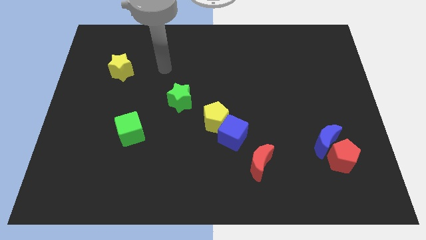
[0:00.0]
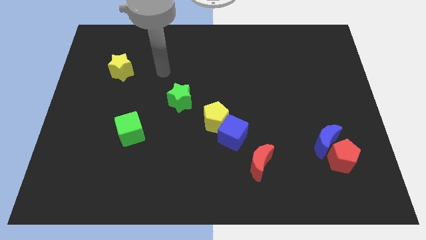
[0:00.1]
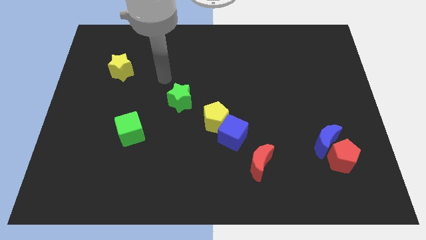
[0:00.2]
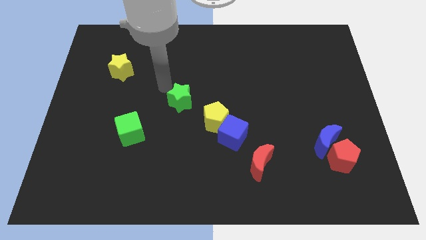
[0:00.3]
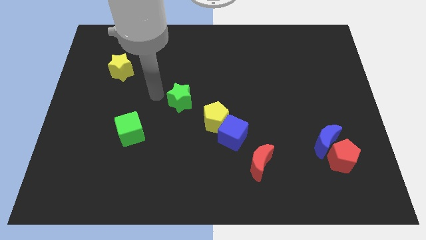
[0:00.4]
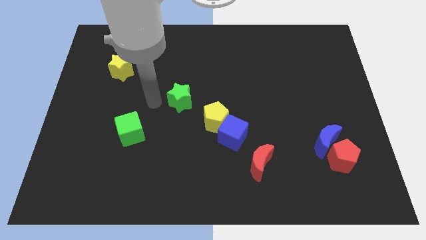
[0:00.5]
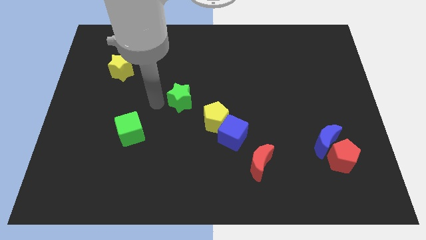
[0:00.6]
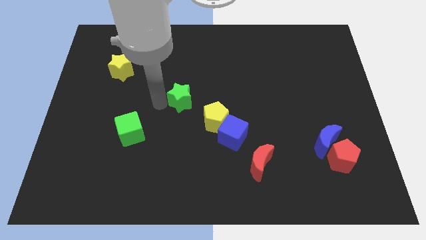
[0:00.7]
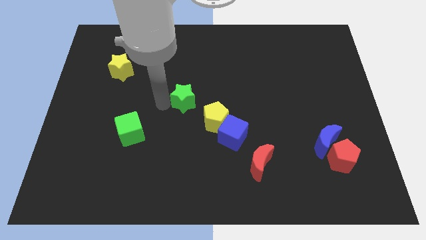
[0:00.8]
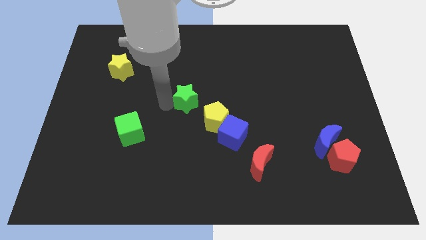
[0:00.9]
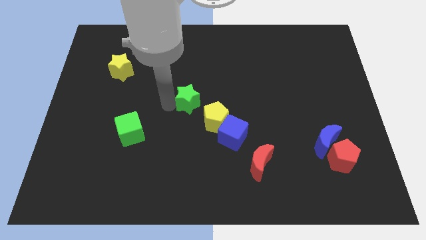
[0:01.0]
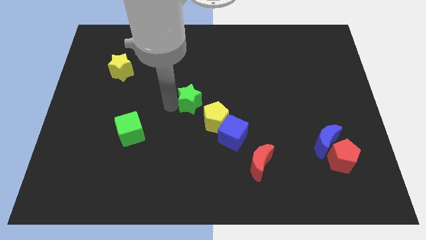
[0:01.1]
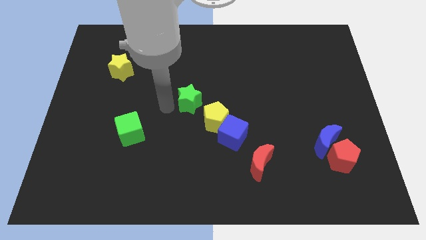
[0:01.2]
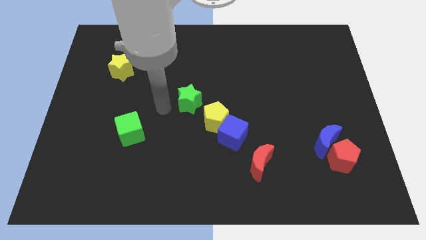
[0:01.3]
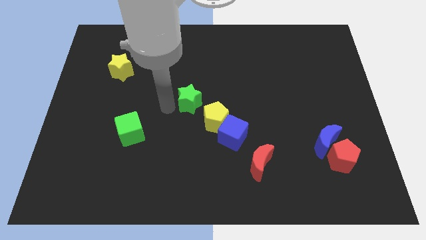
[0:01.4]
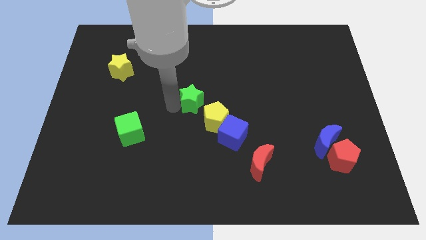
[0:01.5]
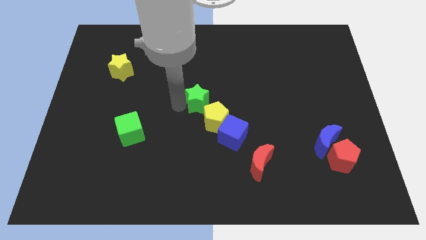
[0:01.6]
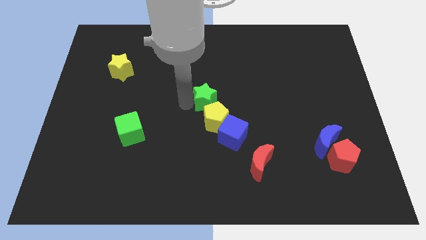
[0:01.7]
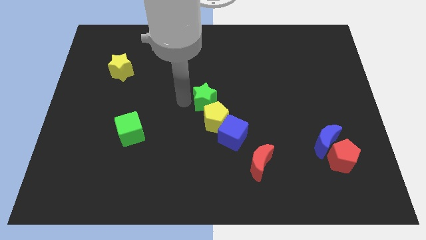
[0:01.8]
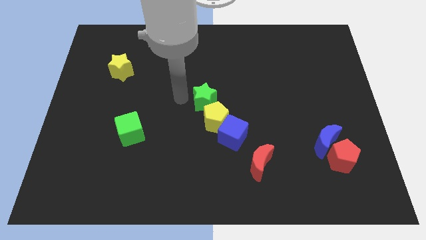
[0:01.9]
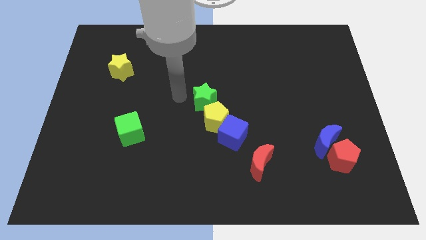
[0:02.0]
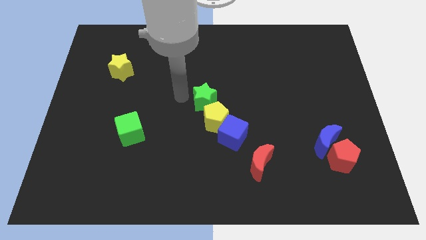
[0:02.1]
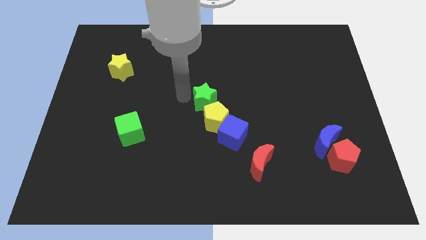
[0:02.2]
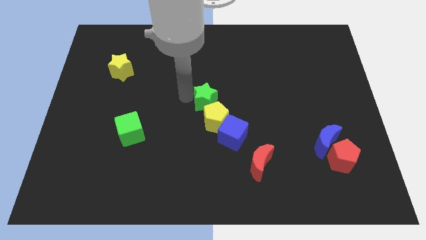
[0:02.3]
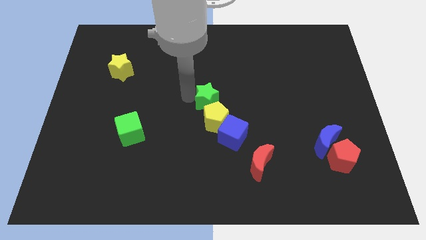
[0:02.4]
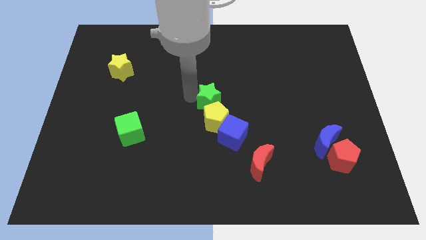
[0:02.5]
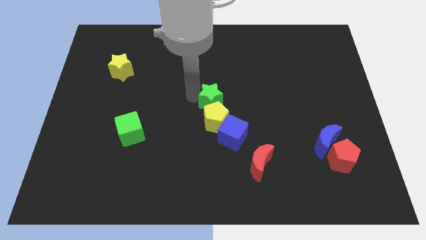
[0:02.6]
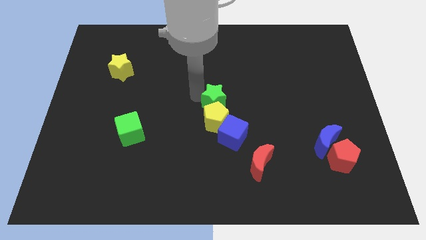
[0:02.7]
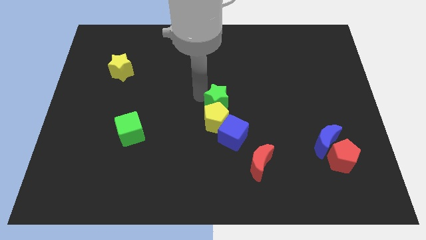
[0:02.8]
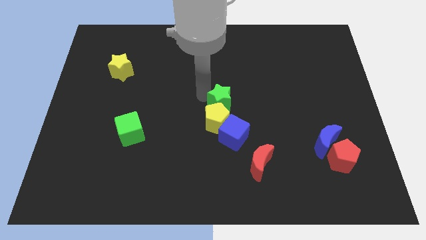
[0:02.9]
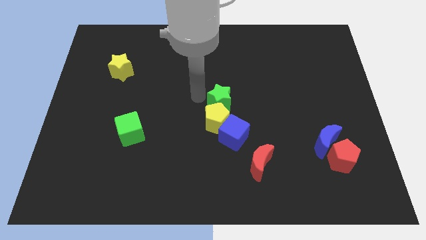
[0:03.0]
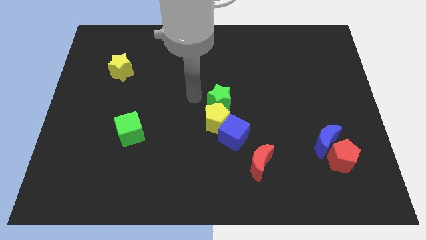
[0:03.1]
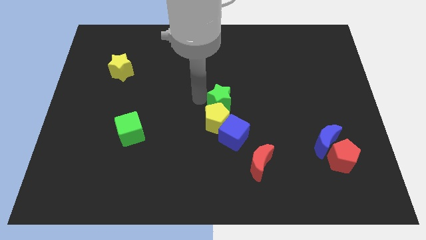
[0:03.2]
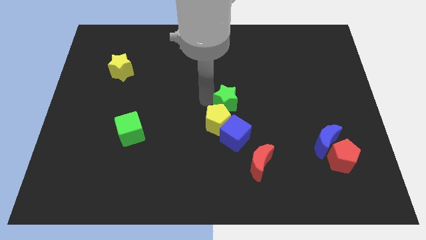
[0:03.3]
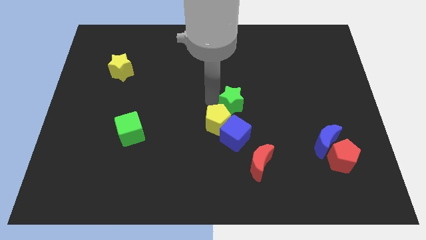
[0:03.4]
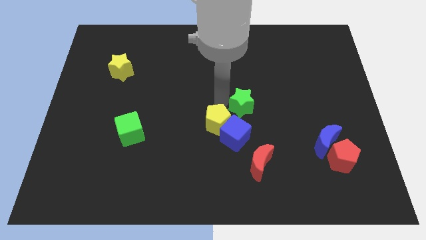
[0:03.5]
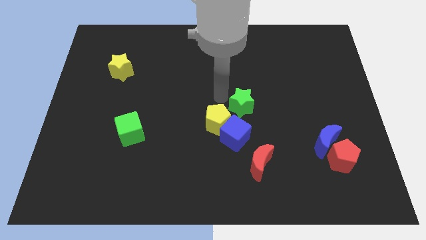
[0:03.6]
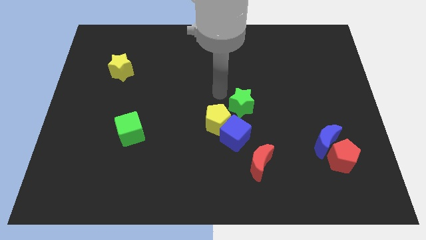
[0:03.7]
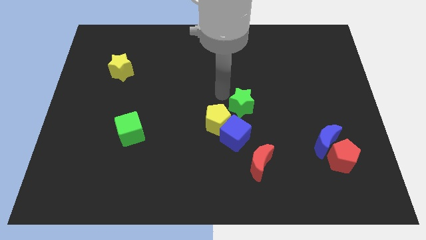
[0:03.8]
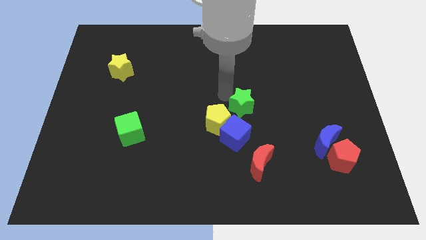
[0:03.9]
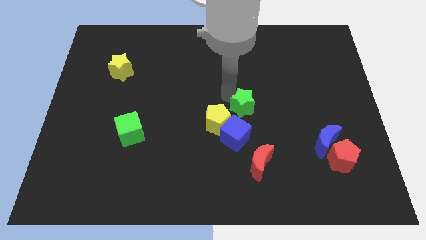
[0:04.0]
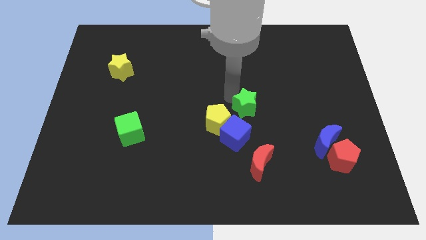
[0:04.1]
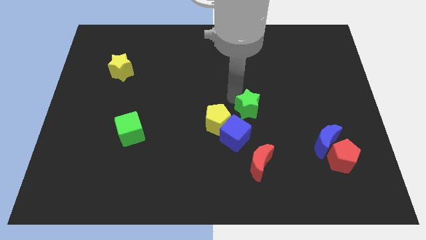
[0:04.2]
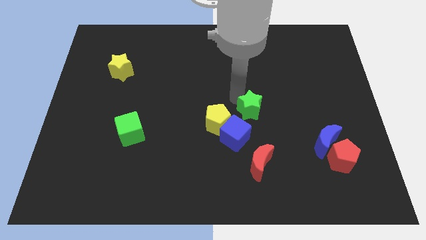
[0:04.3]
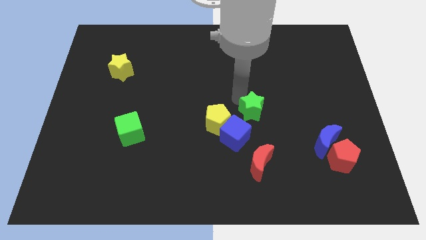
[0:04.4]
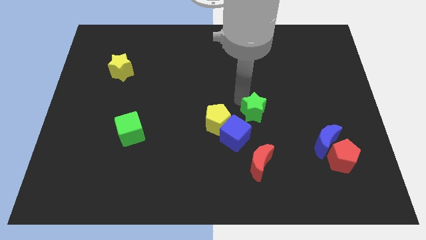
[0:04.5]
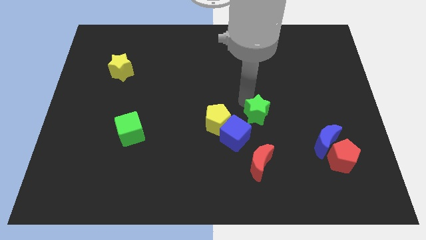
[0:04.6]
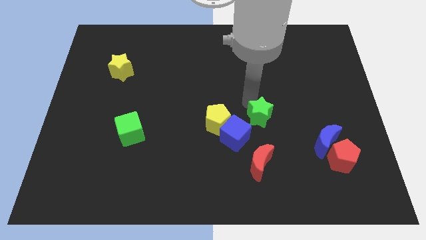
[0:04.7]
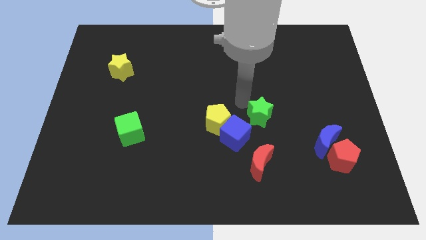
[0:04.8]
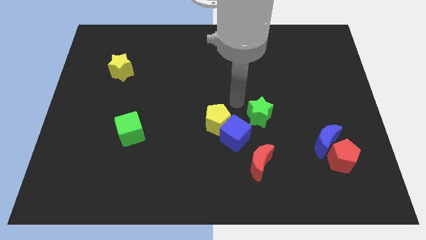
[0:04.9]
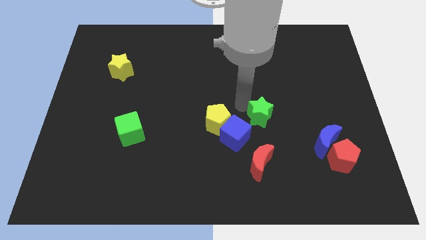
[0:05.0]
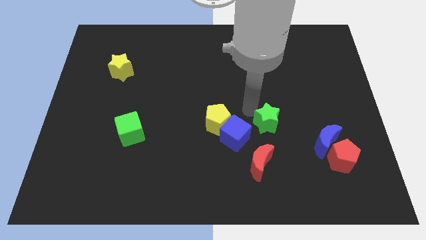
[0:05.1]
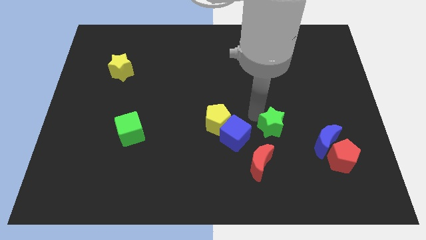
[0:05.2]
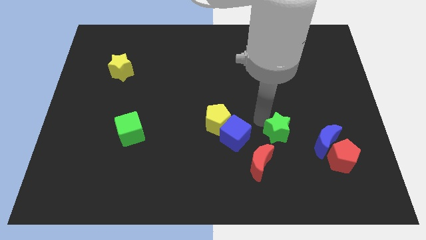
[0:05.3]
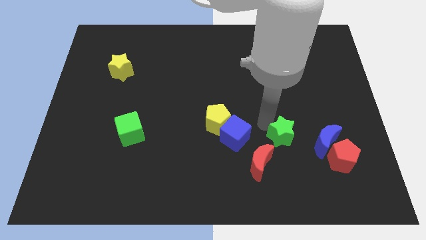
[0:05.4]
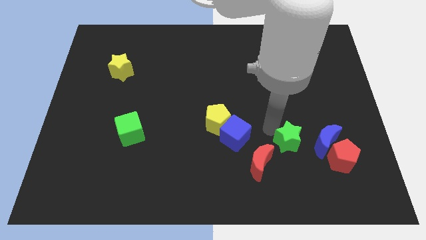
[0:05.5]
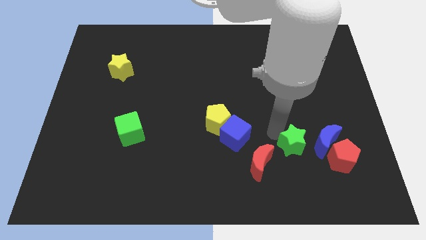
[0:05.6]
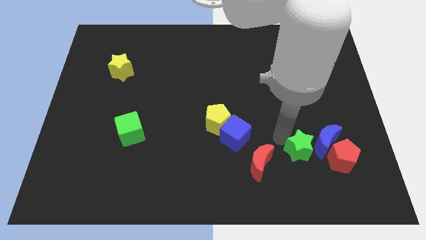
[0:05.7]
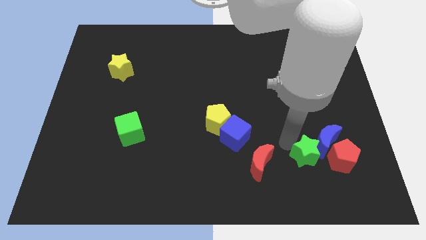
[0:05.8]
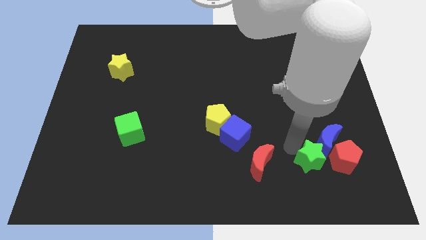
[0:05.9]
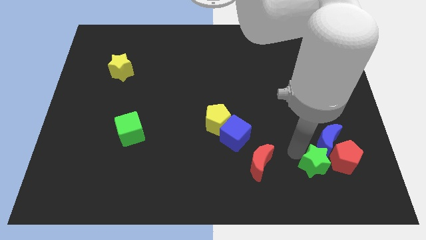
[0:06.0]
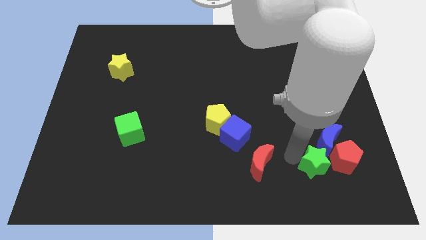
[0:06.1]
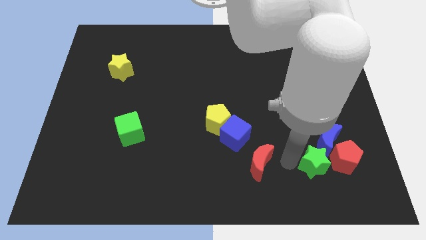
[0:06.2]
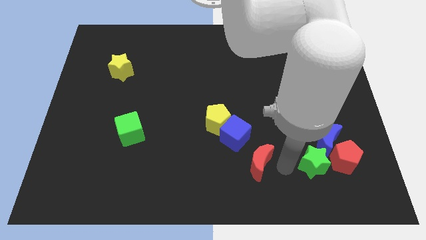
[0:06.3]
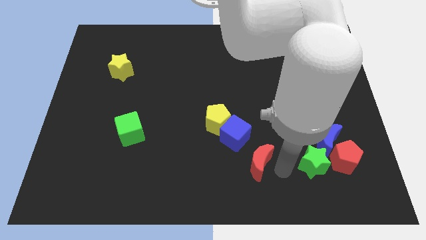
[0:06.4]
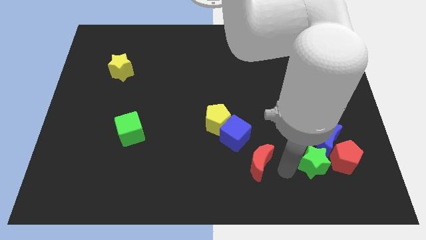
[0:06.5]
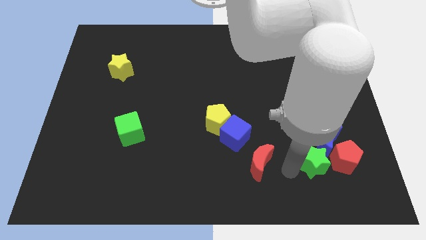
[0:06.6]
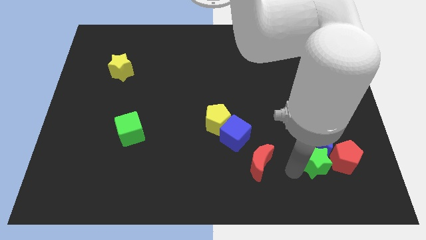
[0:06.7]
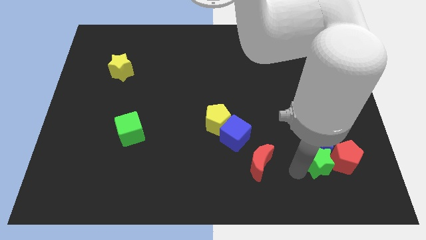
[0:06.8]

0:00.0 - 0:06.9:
move the green star to the red pentagon
